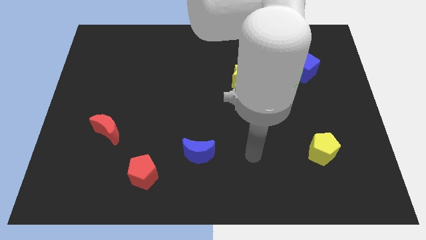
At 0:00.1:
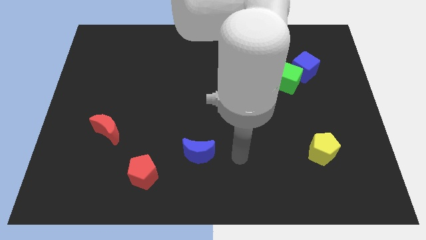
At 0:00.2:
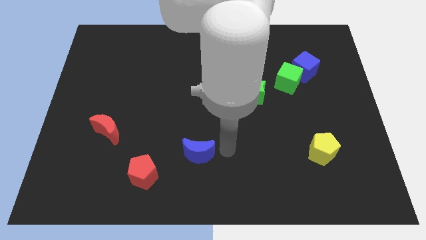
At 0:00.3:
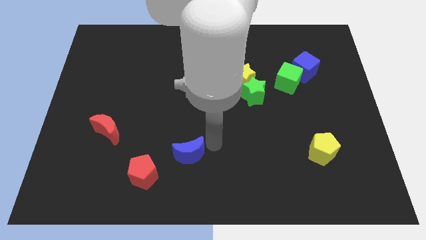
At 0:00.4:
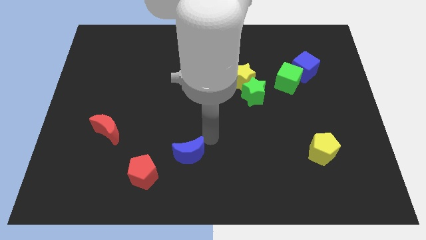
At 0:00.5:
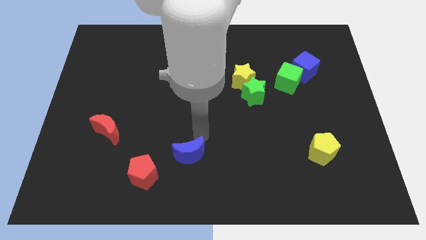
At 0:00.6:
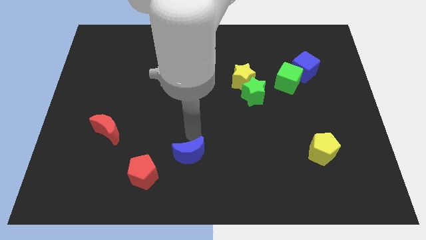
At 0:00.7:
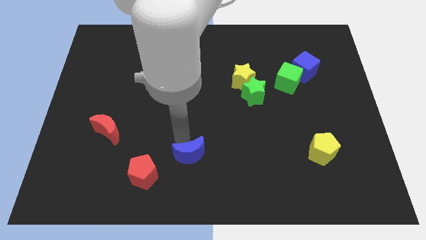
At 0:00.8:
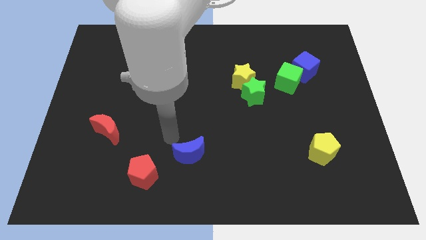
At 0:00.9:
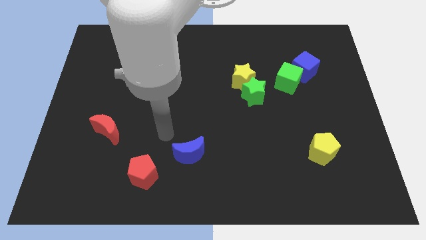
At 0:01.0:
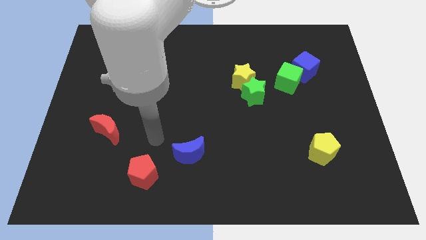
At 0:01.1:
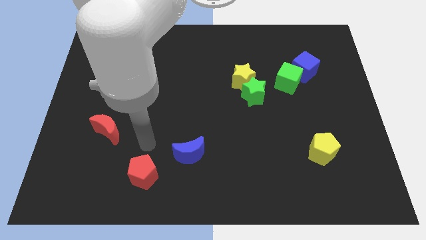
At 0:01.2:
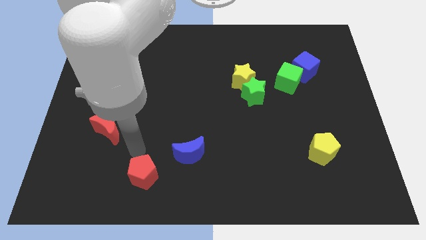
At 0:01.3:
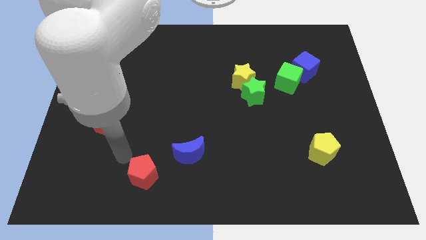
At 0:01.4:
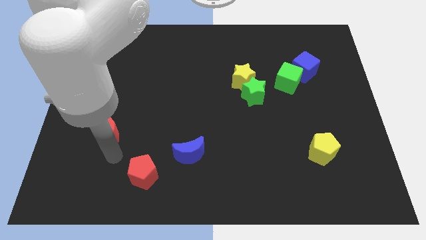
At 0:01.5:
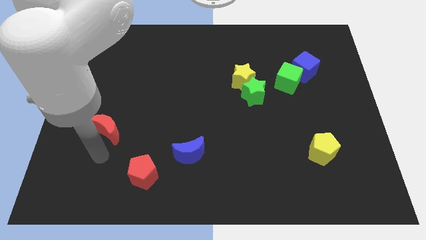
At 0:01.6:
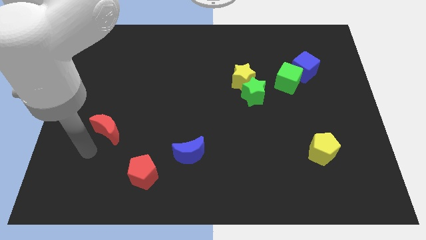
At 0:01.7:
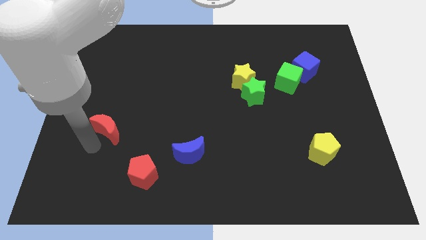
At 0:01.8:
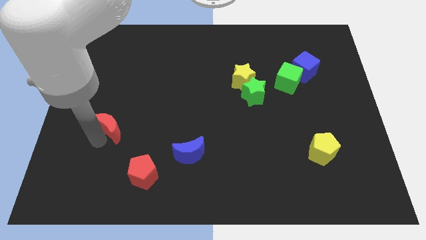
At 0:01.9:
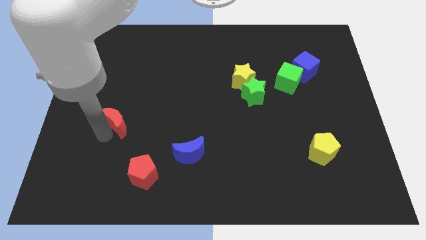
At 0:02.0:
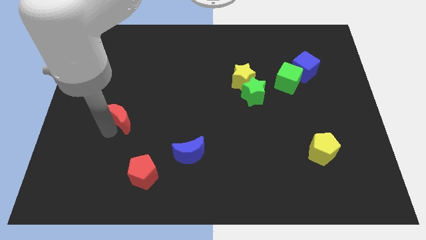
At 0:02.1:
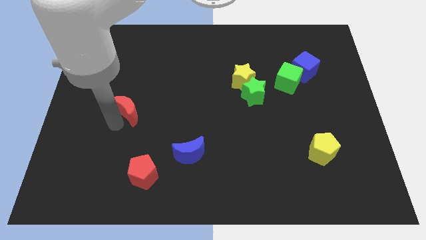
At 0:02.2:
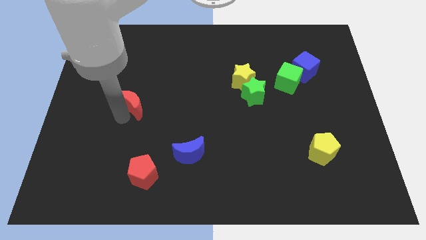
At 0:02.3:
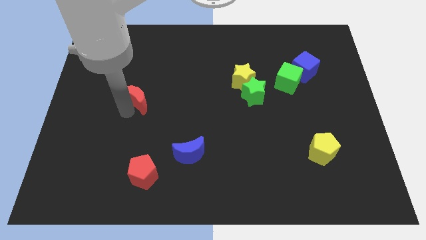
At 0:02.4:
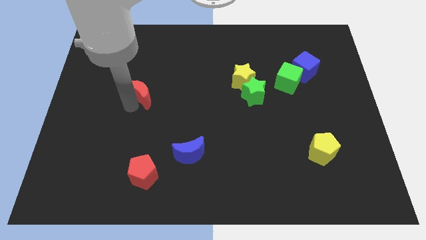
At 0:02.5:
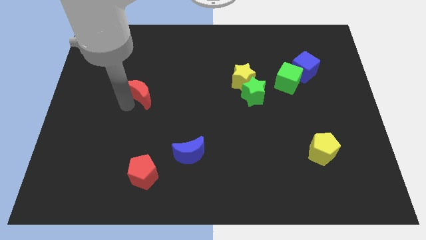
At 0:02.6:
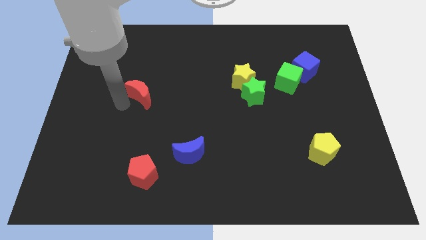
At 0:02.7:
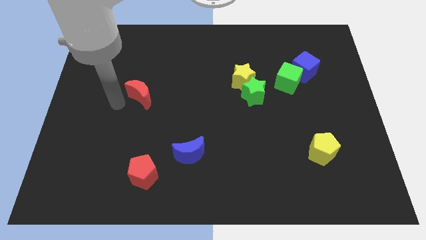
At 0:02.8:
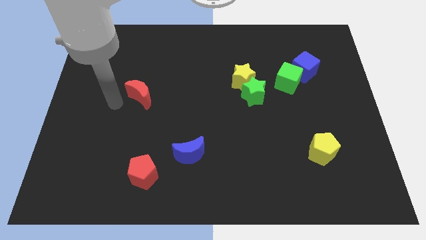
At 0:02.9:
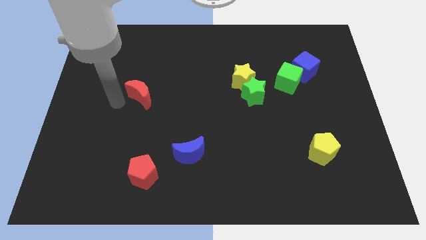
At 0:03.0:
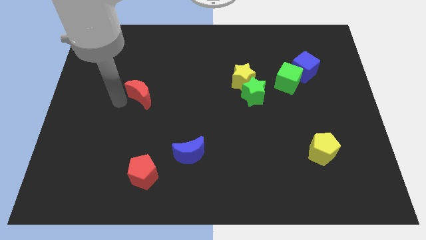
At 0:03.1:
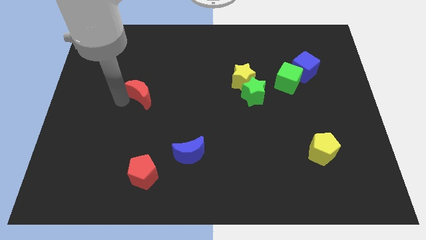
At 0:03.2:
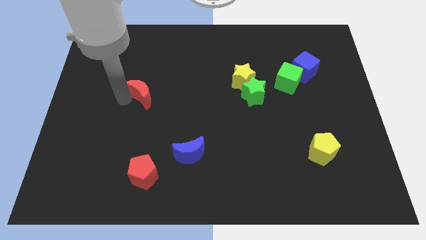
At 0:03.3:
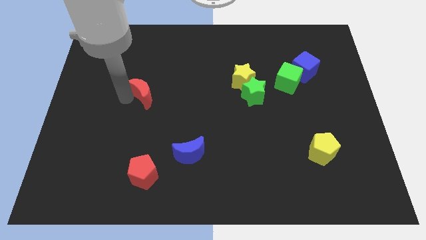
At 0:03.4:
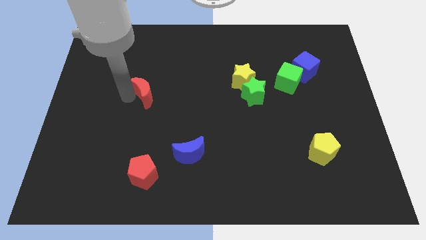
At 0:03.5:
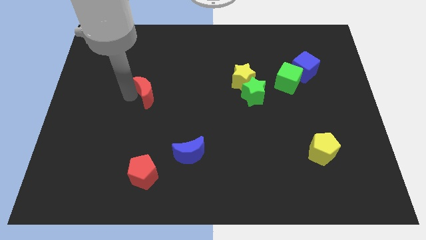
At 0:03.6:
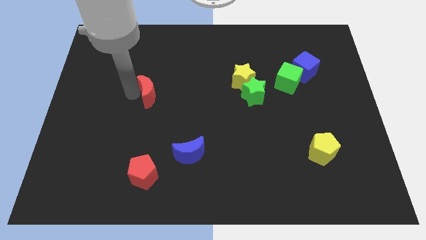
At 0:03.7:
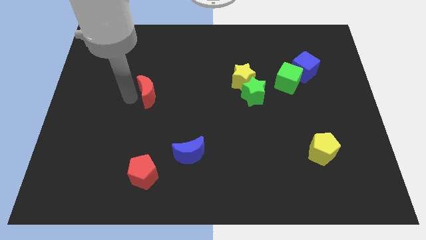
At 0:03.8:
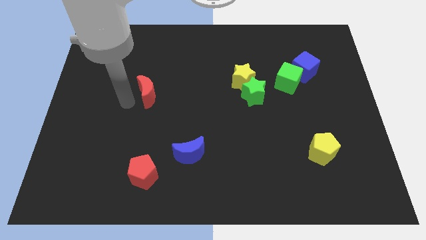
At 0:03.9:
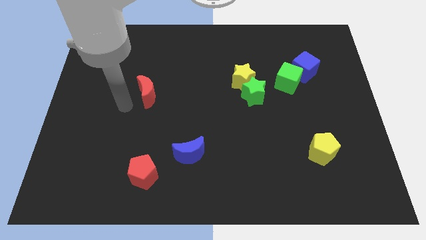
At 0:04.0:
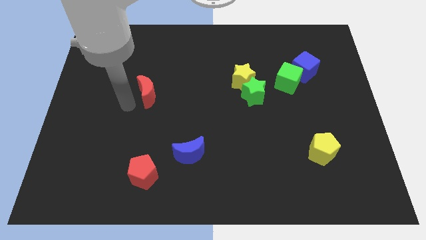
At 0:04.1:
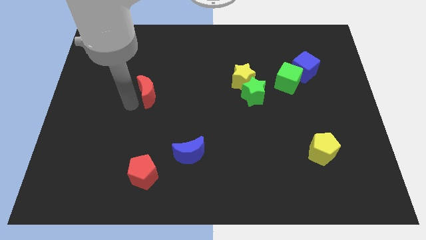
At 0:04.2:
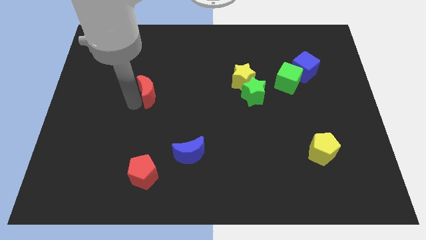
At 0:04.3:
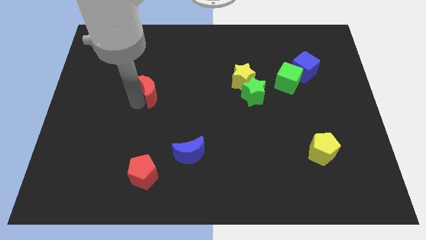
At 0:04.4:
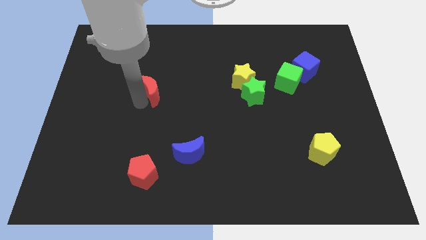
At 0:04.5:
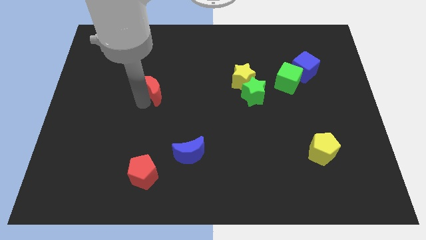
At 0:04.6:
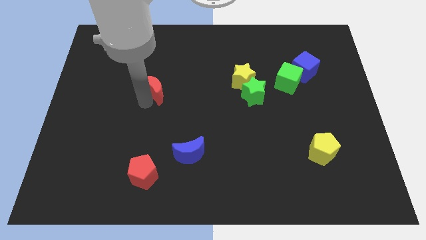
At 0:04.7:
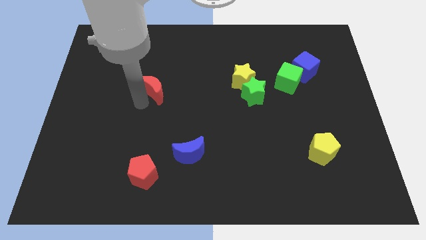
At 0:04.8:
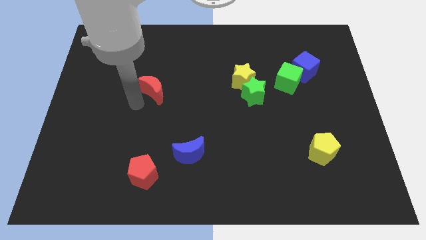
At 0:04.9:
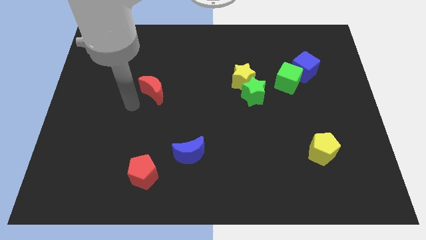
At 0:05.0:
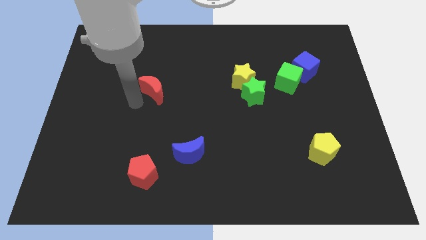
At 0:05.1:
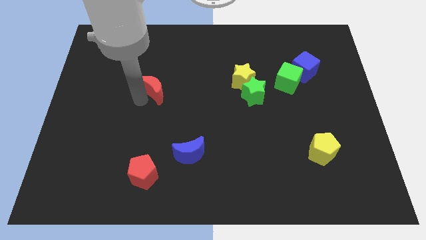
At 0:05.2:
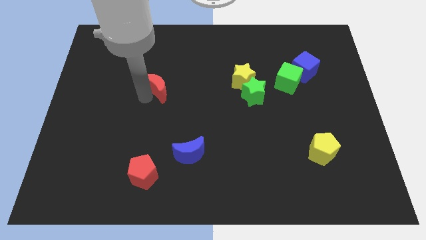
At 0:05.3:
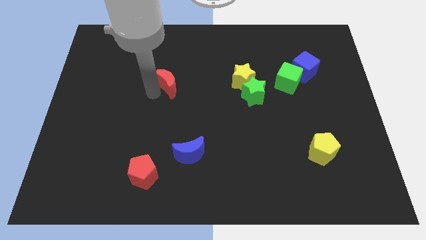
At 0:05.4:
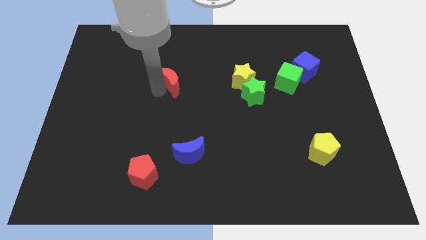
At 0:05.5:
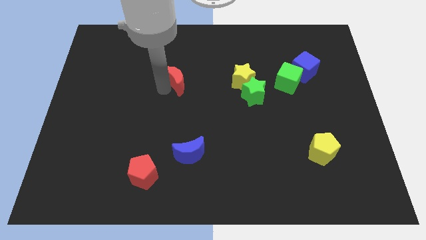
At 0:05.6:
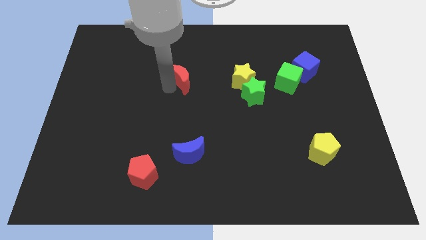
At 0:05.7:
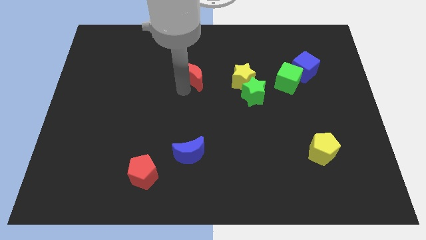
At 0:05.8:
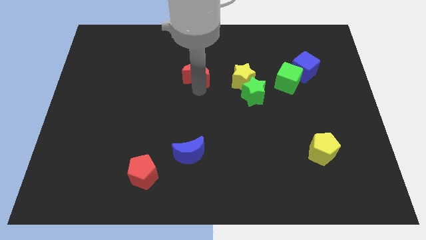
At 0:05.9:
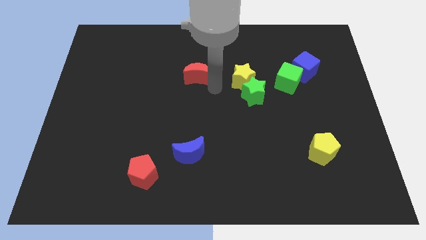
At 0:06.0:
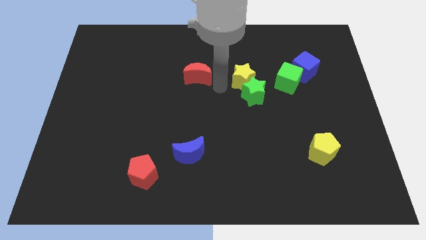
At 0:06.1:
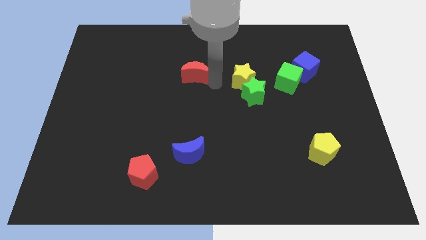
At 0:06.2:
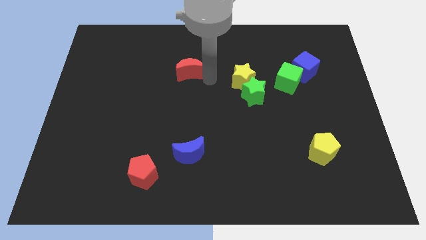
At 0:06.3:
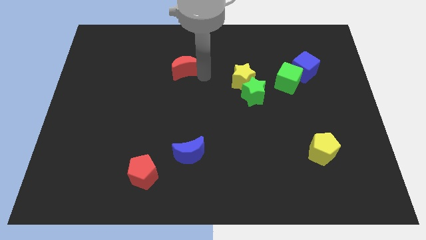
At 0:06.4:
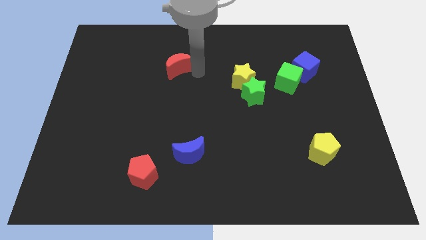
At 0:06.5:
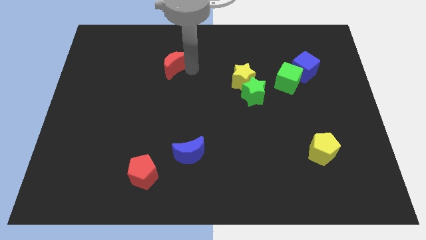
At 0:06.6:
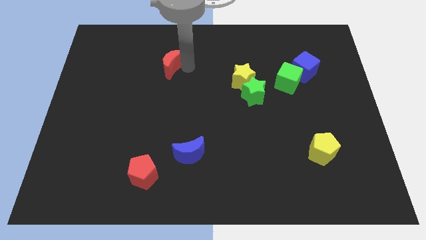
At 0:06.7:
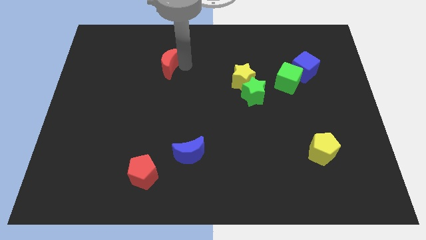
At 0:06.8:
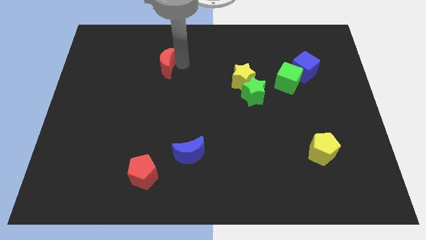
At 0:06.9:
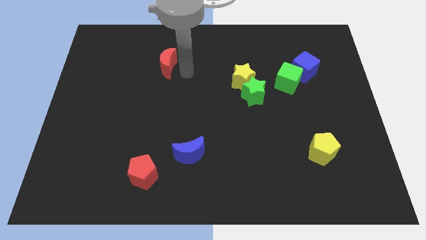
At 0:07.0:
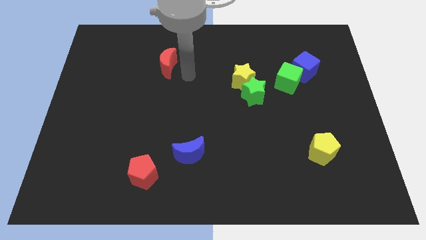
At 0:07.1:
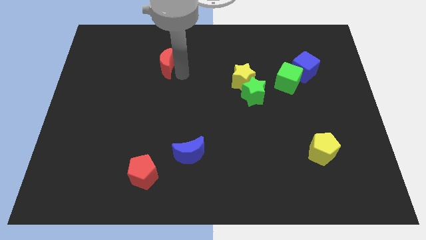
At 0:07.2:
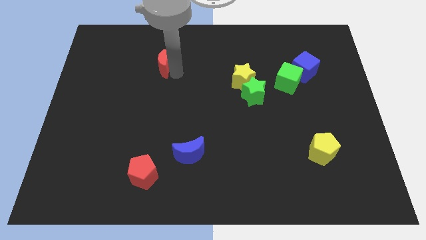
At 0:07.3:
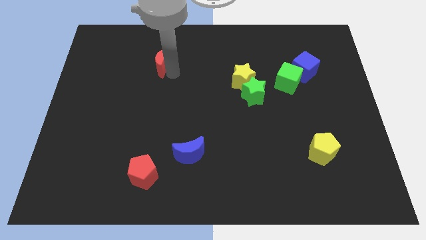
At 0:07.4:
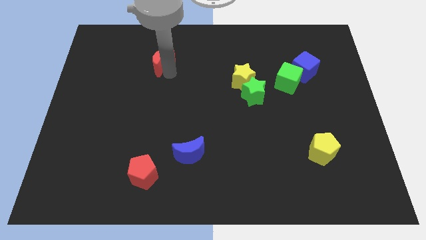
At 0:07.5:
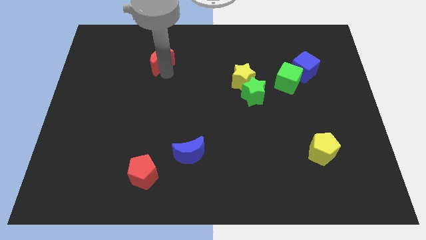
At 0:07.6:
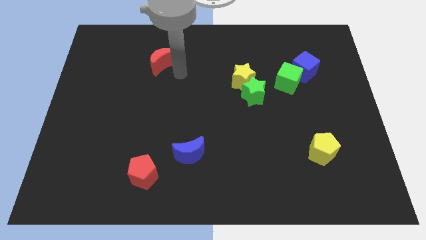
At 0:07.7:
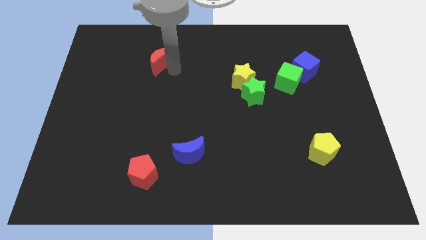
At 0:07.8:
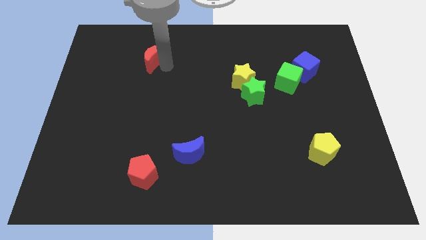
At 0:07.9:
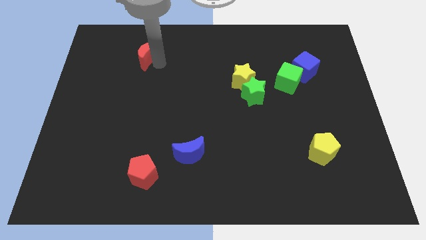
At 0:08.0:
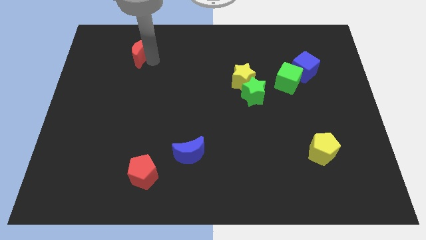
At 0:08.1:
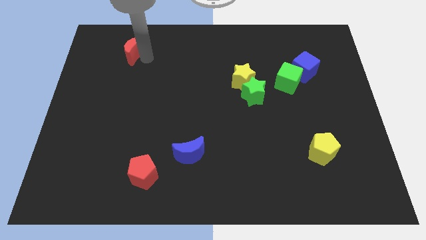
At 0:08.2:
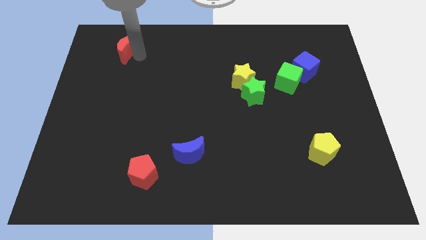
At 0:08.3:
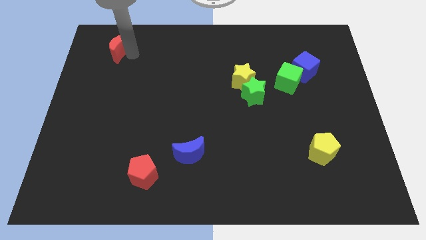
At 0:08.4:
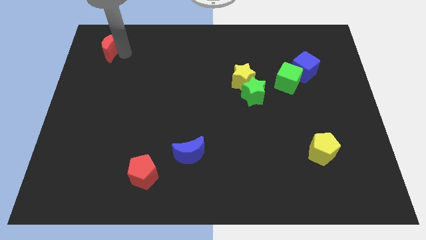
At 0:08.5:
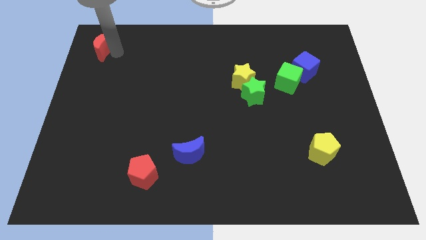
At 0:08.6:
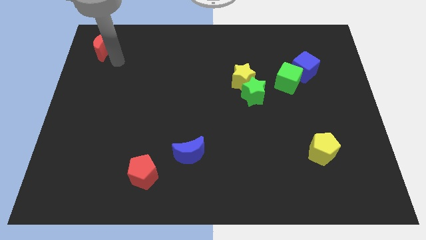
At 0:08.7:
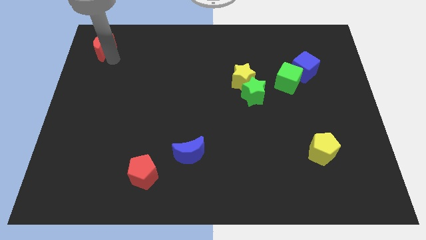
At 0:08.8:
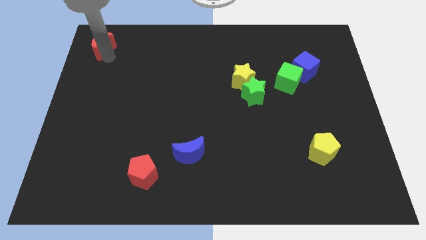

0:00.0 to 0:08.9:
put the red moon to the upper left corner
